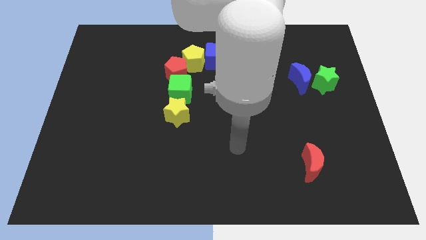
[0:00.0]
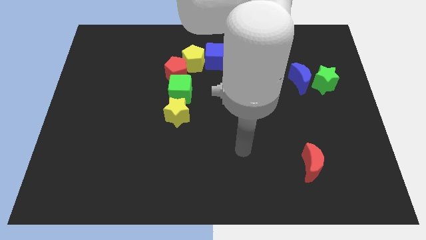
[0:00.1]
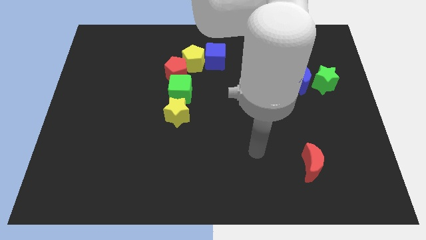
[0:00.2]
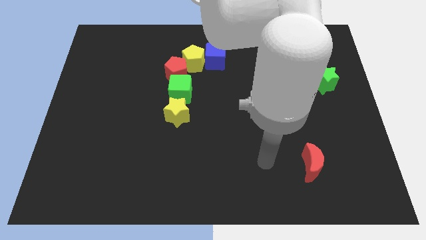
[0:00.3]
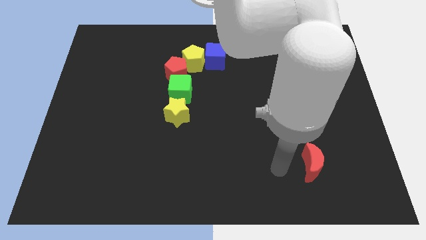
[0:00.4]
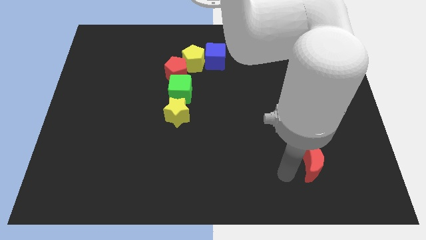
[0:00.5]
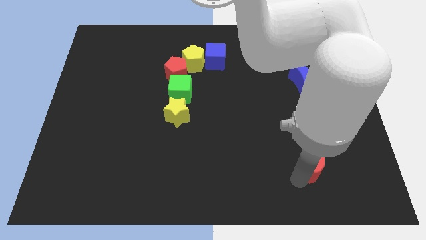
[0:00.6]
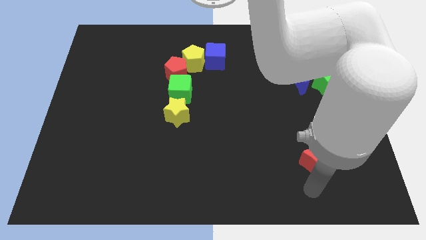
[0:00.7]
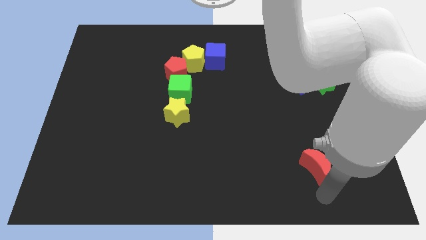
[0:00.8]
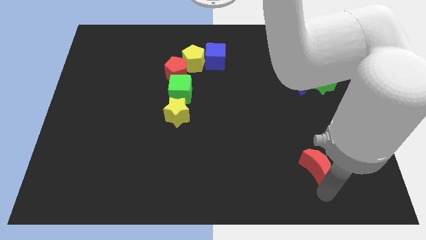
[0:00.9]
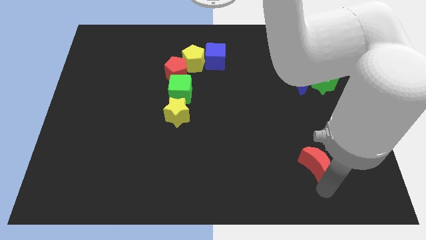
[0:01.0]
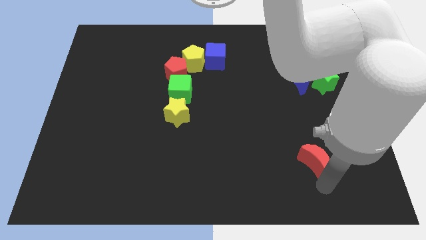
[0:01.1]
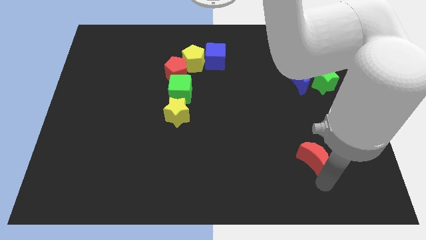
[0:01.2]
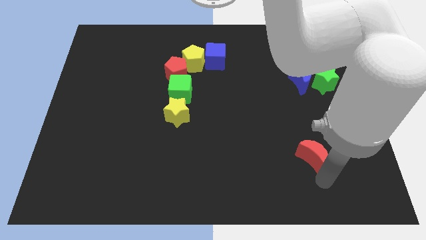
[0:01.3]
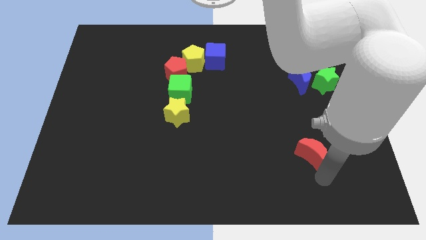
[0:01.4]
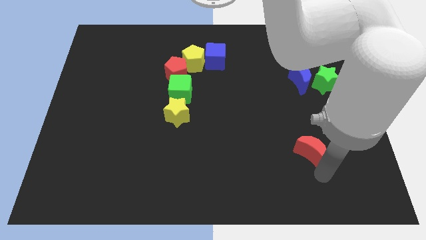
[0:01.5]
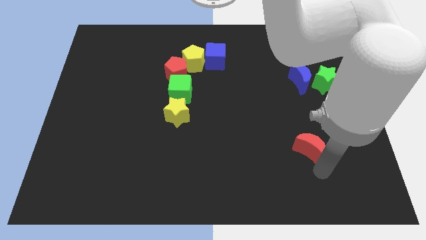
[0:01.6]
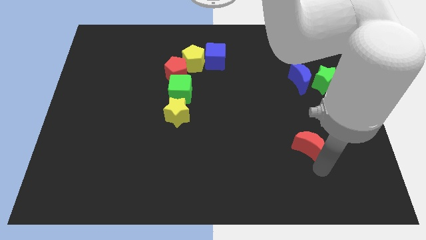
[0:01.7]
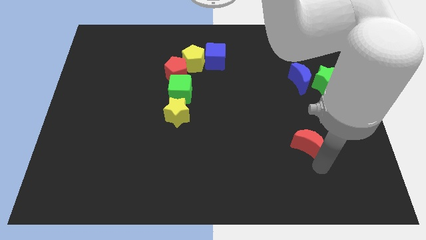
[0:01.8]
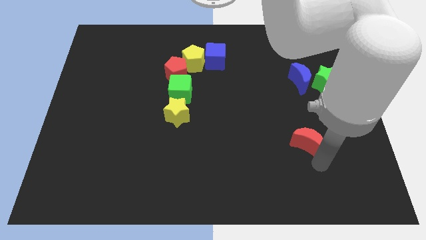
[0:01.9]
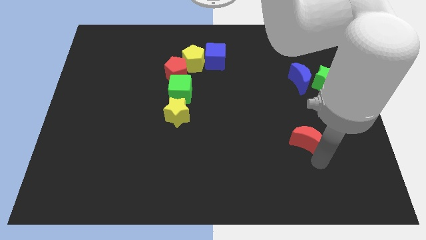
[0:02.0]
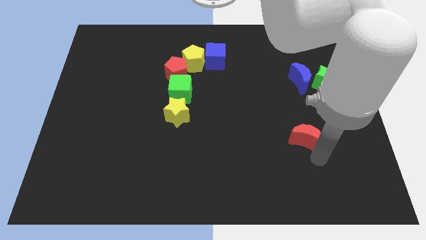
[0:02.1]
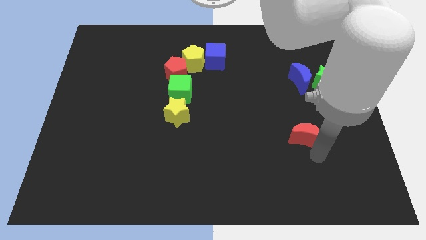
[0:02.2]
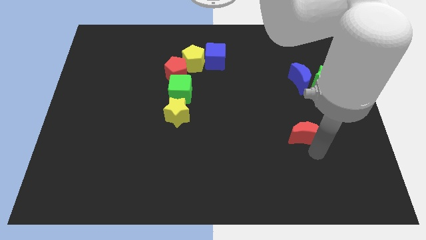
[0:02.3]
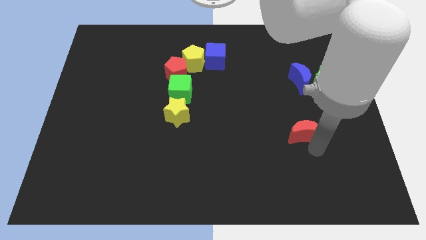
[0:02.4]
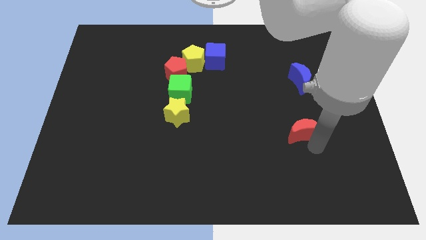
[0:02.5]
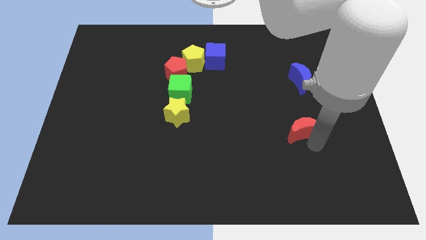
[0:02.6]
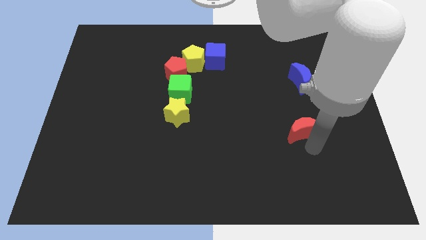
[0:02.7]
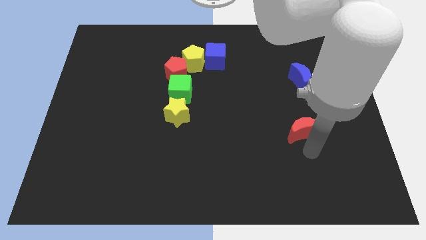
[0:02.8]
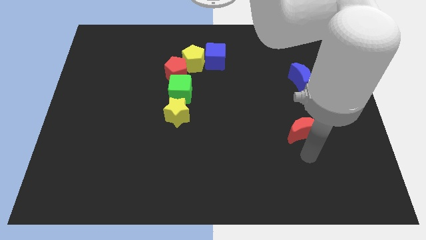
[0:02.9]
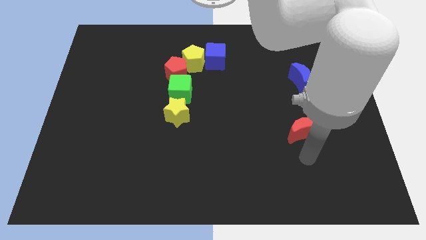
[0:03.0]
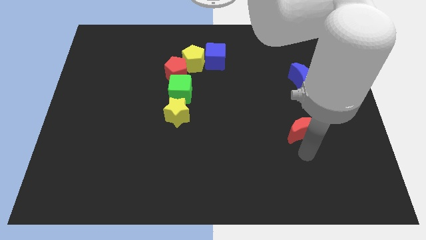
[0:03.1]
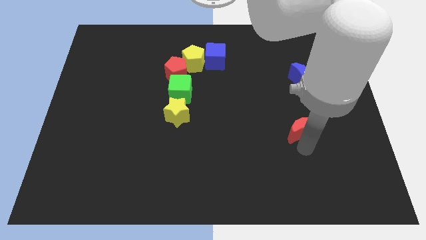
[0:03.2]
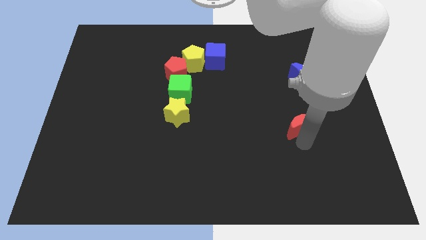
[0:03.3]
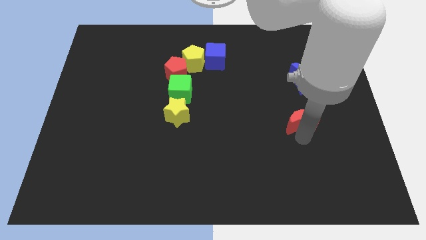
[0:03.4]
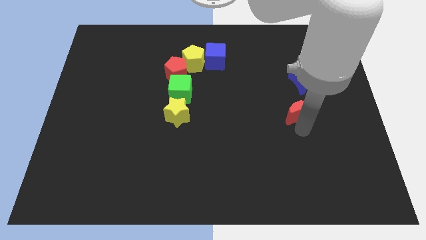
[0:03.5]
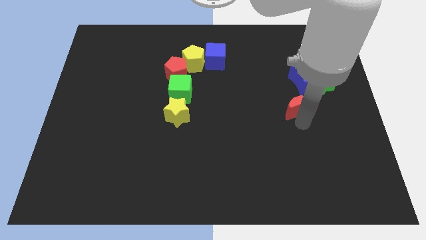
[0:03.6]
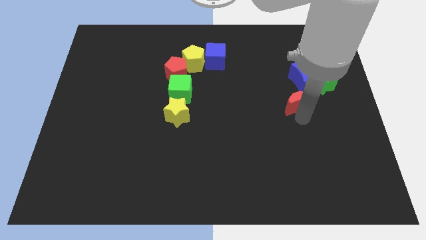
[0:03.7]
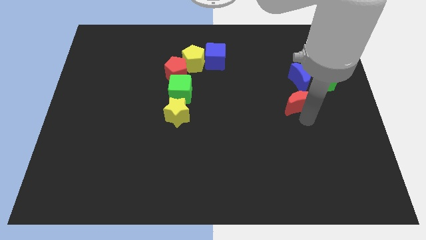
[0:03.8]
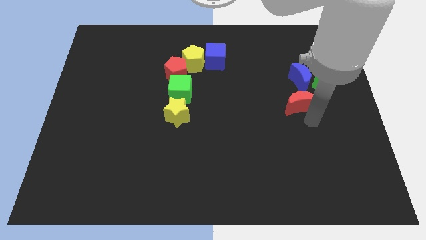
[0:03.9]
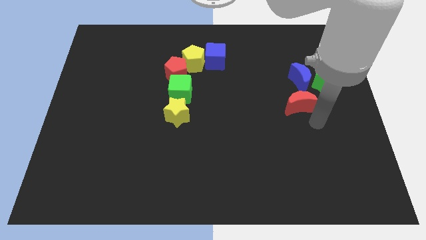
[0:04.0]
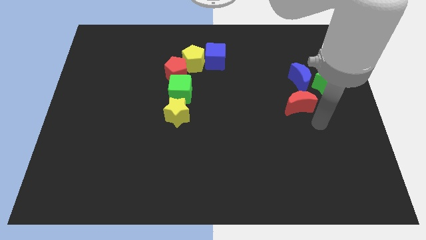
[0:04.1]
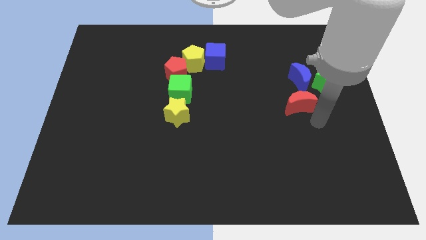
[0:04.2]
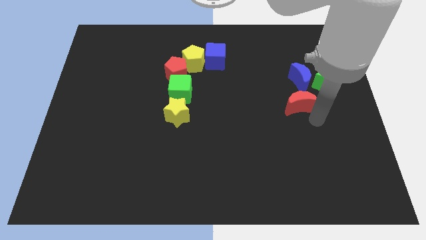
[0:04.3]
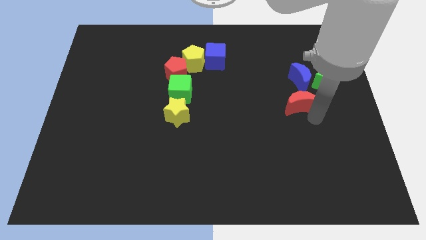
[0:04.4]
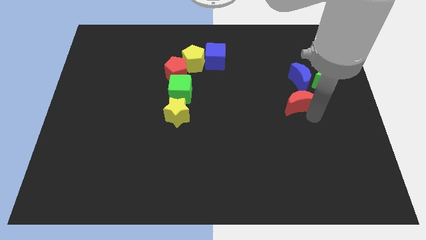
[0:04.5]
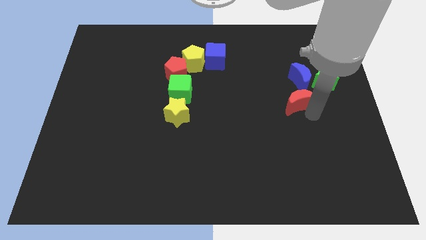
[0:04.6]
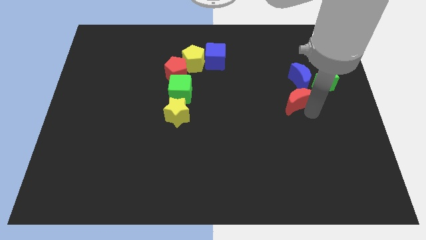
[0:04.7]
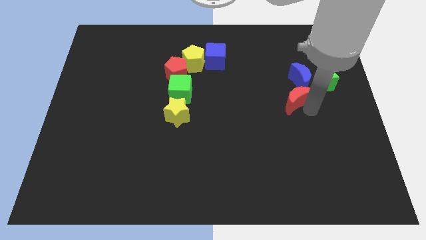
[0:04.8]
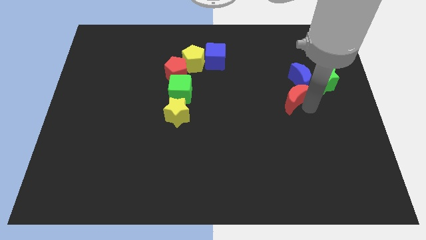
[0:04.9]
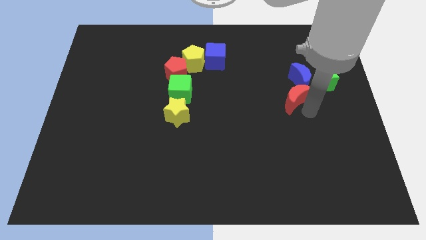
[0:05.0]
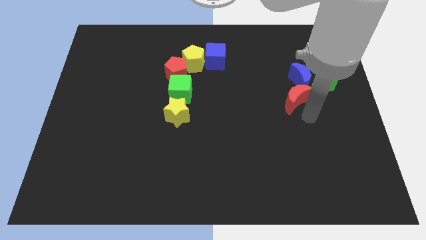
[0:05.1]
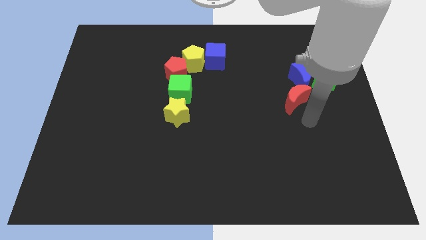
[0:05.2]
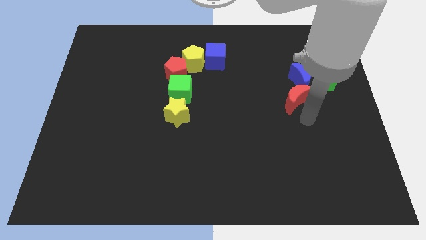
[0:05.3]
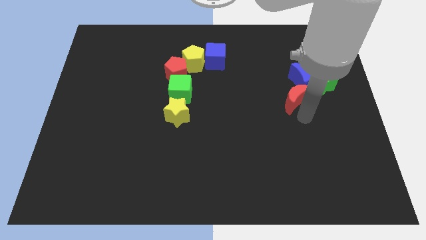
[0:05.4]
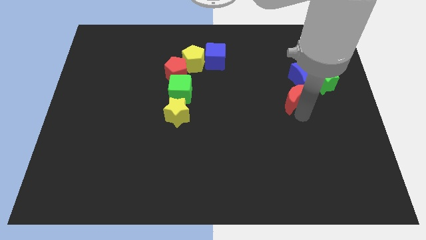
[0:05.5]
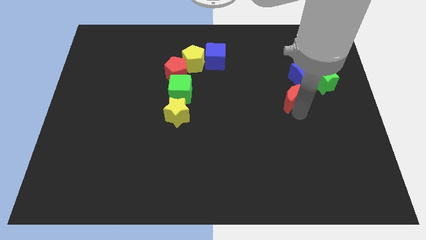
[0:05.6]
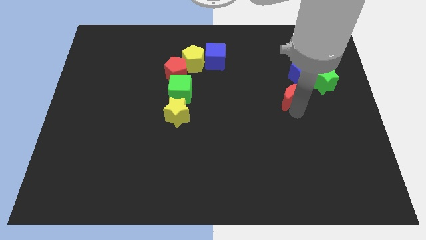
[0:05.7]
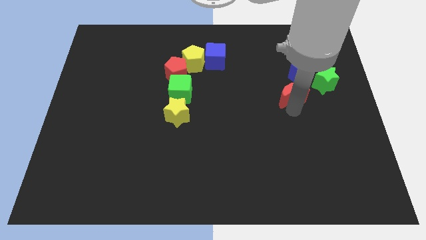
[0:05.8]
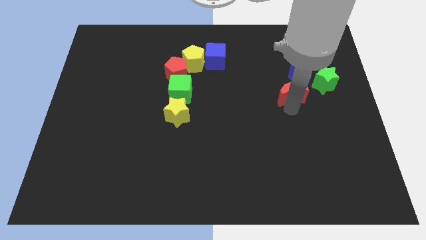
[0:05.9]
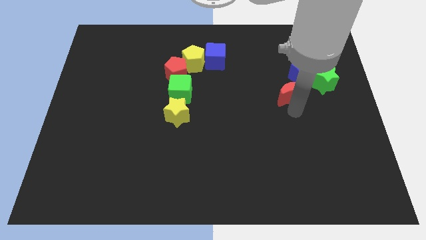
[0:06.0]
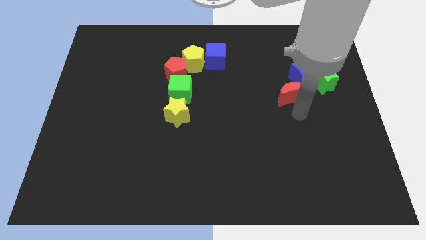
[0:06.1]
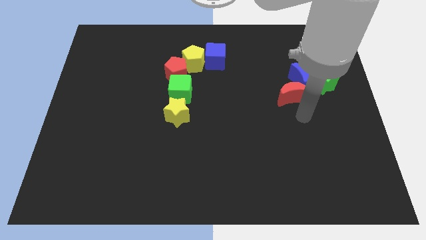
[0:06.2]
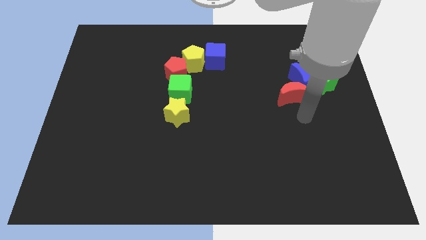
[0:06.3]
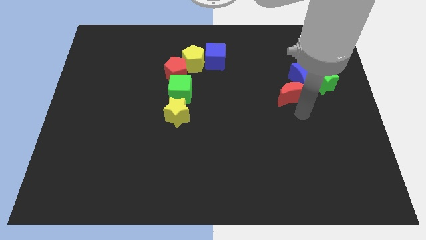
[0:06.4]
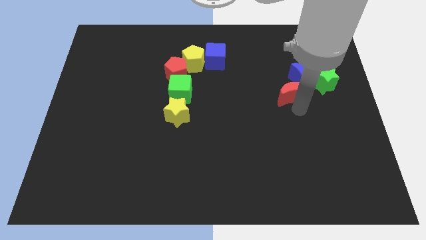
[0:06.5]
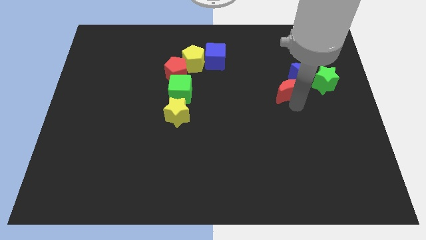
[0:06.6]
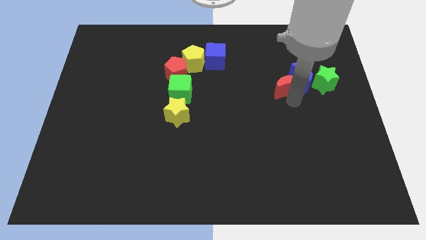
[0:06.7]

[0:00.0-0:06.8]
push the red moon up

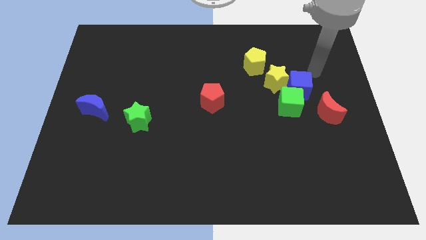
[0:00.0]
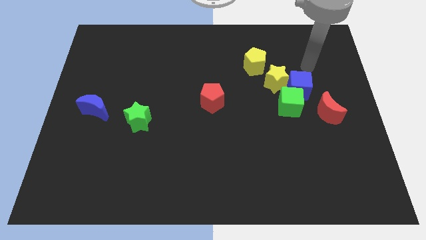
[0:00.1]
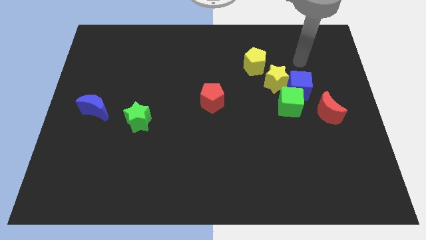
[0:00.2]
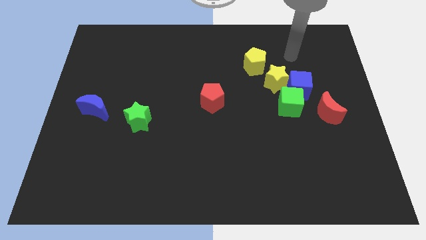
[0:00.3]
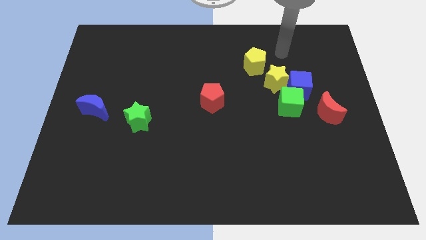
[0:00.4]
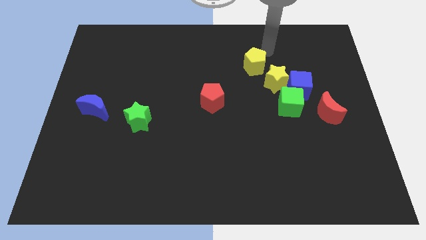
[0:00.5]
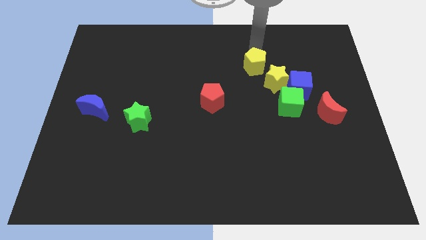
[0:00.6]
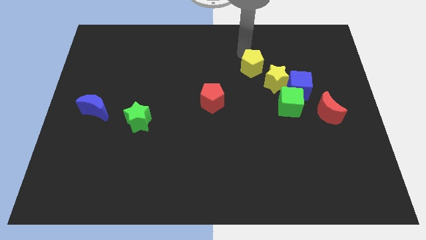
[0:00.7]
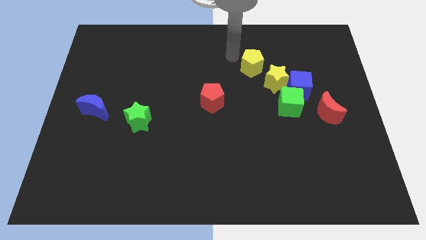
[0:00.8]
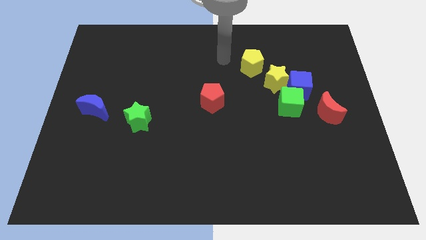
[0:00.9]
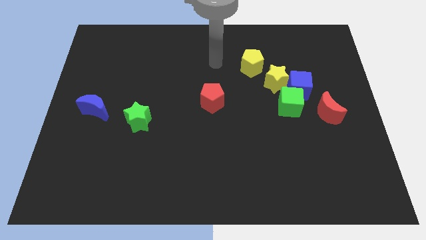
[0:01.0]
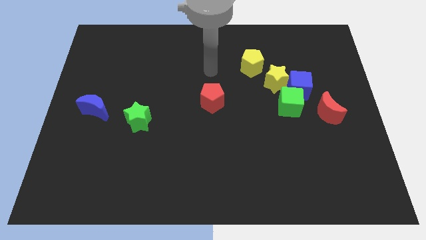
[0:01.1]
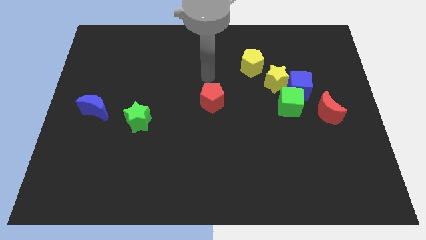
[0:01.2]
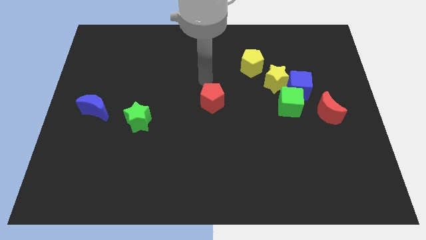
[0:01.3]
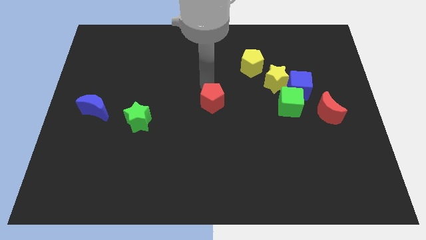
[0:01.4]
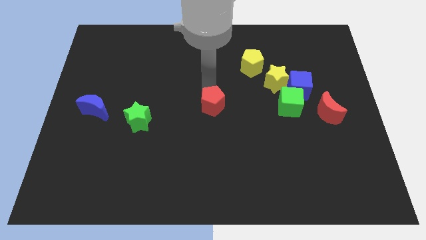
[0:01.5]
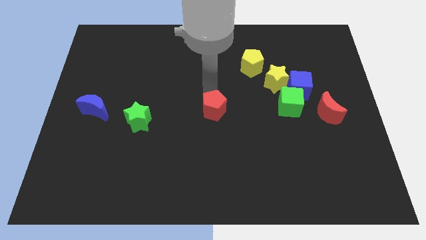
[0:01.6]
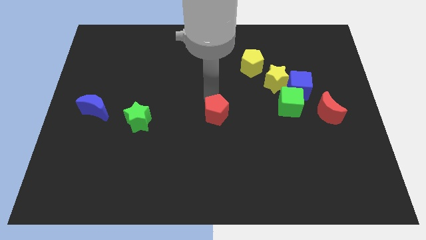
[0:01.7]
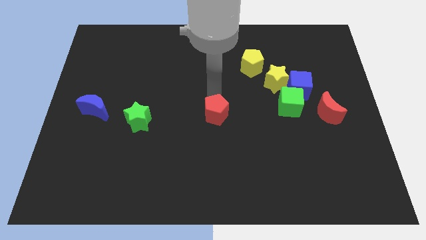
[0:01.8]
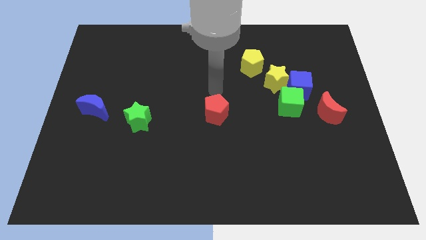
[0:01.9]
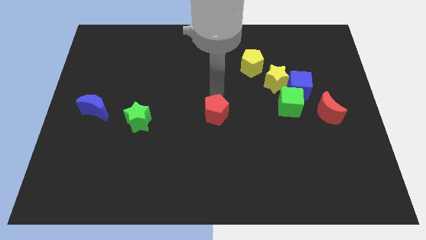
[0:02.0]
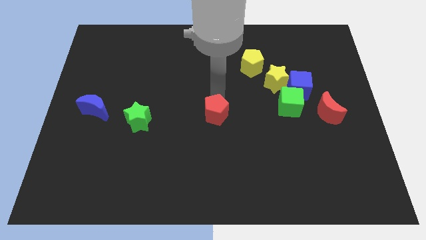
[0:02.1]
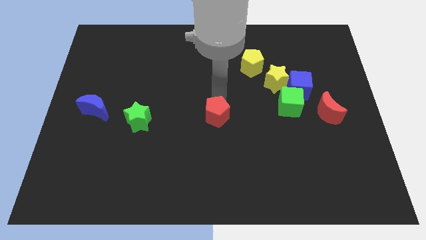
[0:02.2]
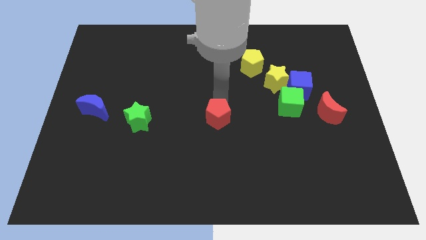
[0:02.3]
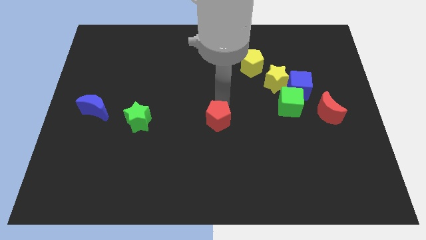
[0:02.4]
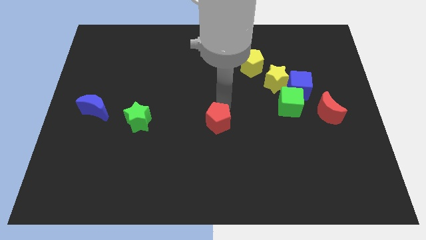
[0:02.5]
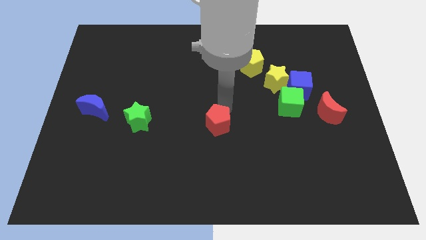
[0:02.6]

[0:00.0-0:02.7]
slightly move the red pentagon downwards
